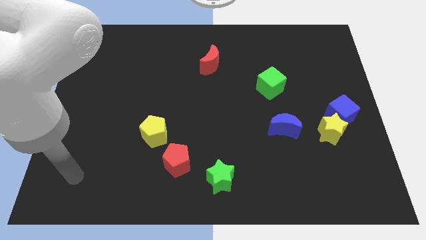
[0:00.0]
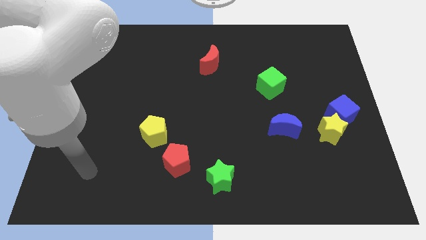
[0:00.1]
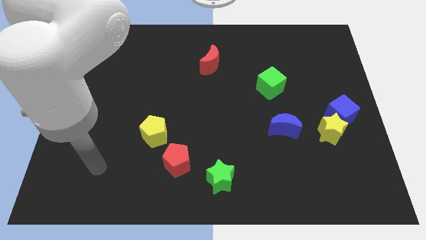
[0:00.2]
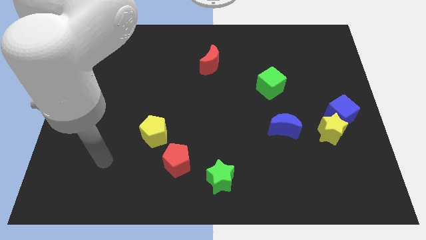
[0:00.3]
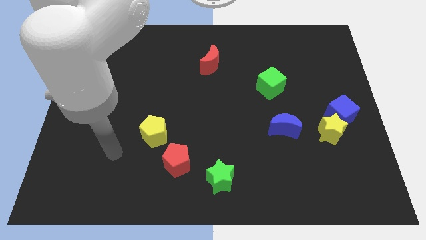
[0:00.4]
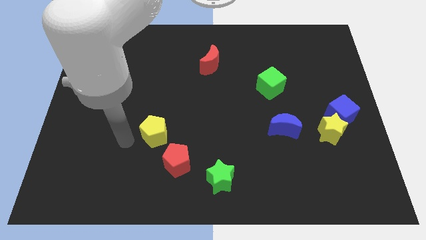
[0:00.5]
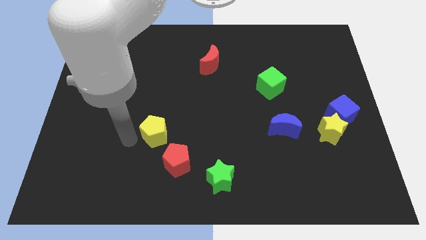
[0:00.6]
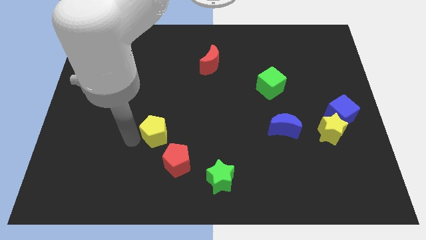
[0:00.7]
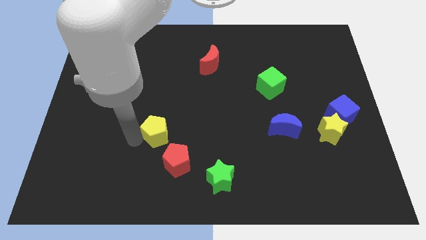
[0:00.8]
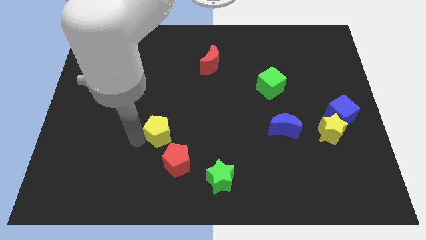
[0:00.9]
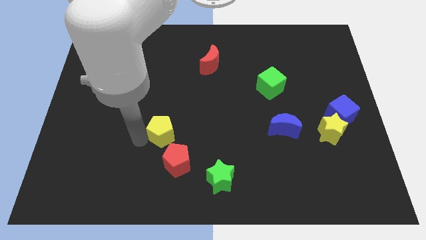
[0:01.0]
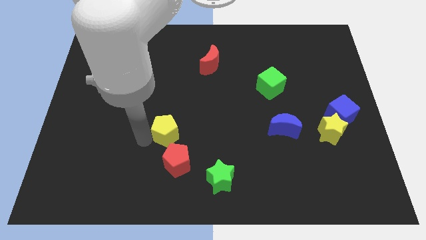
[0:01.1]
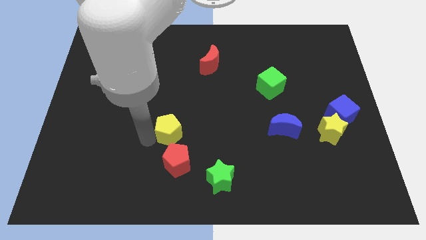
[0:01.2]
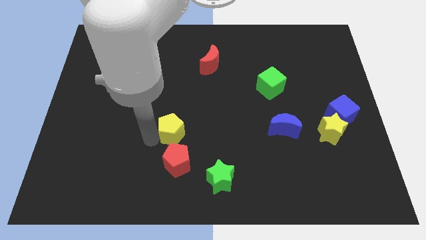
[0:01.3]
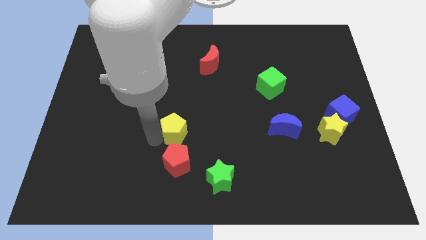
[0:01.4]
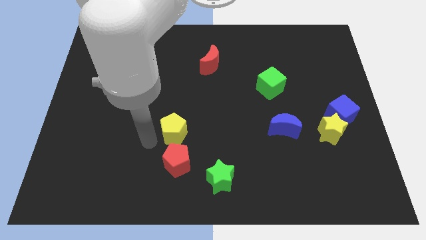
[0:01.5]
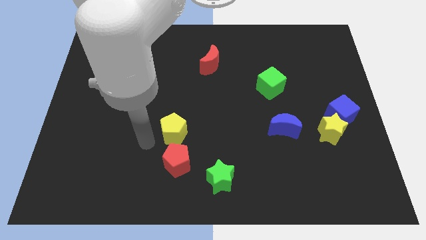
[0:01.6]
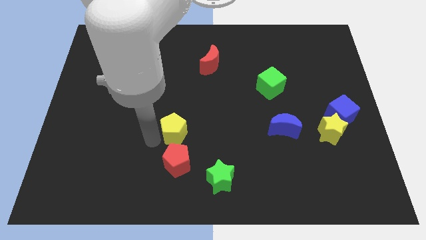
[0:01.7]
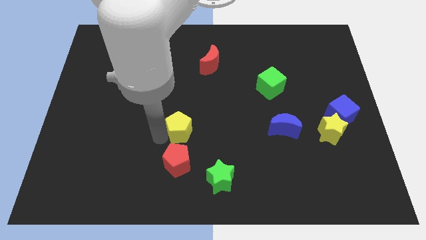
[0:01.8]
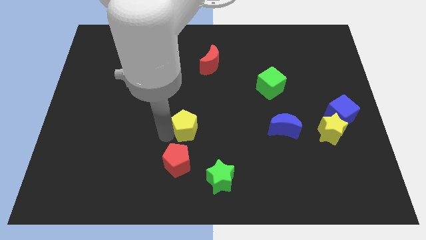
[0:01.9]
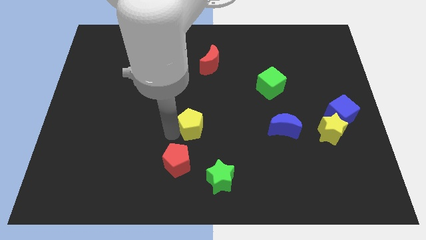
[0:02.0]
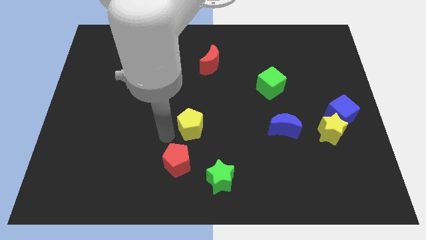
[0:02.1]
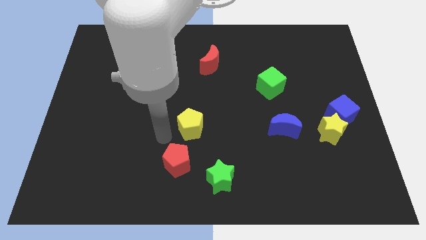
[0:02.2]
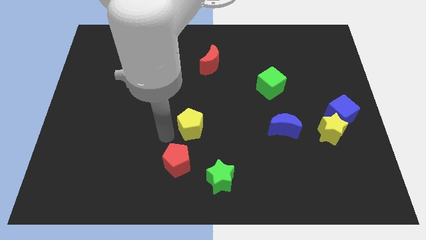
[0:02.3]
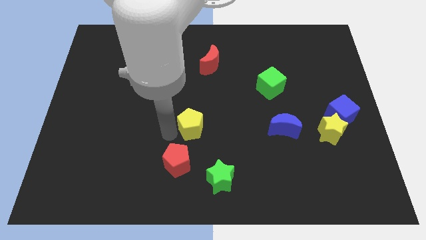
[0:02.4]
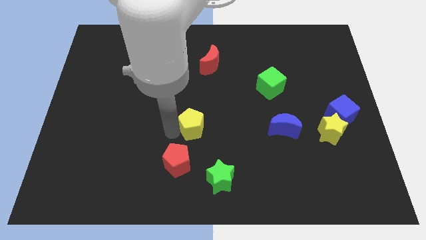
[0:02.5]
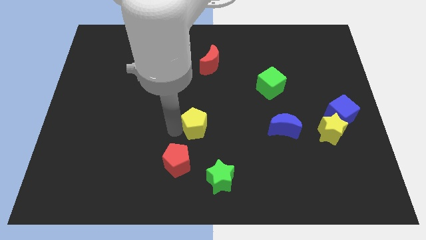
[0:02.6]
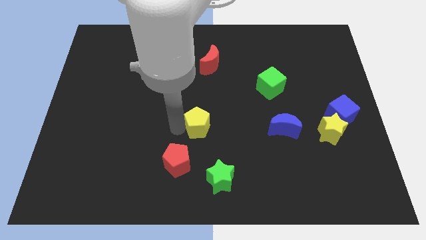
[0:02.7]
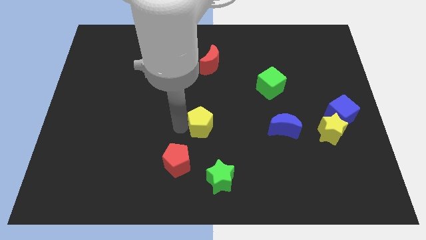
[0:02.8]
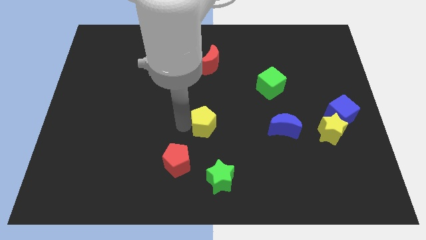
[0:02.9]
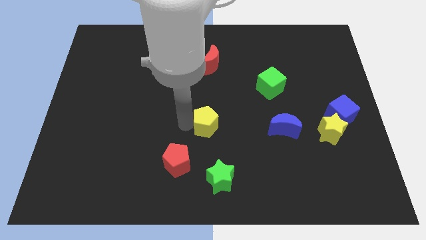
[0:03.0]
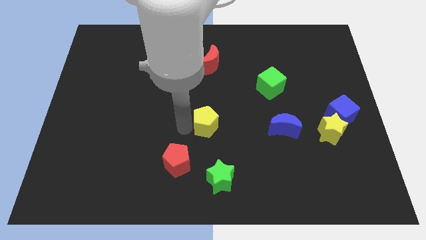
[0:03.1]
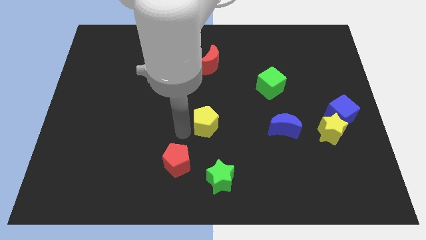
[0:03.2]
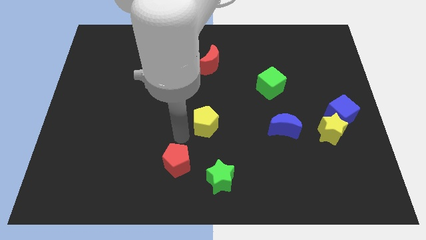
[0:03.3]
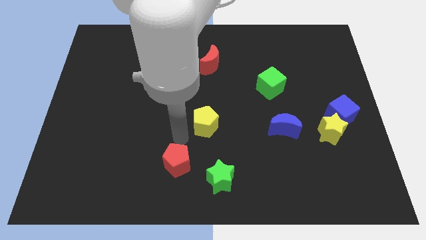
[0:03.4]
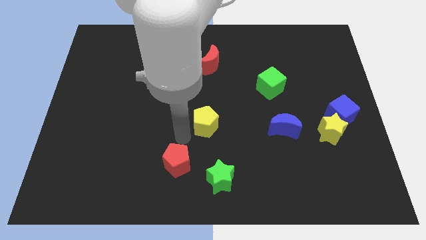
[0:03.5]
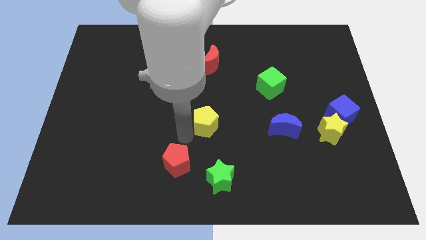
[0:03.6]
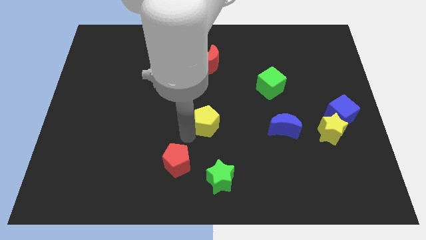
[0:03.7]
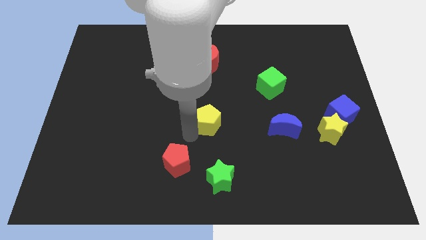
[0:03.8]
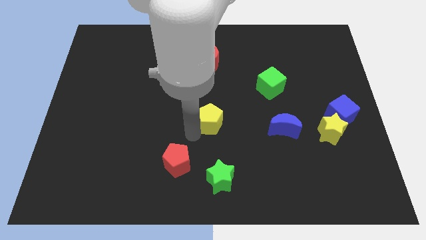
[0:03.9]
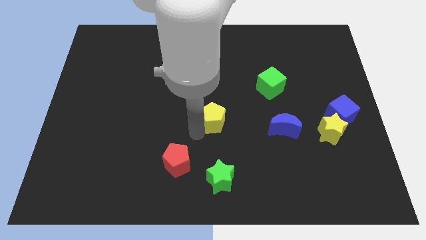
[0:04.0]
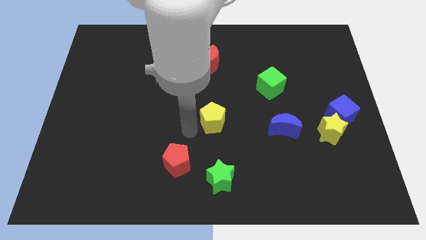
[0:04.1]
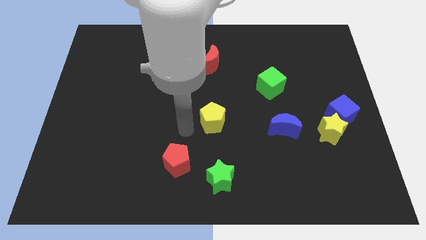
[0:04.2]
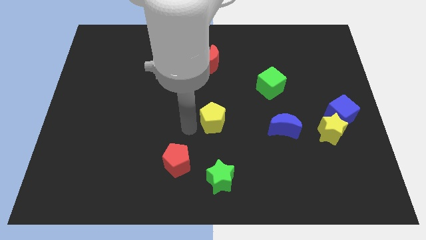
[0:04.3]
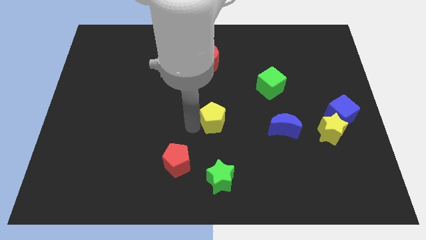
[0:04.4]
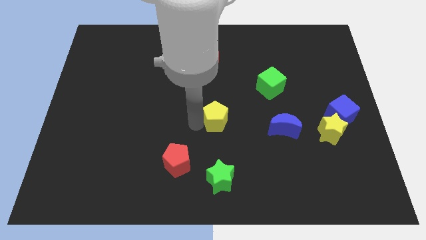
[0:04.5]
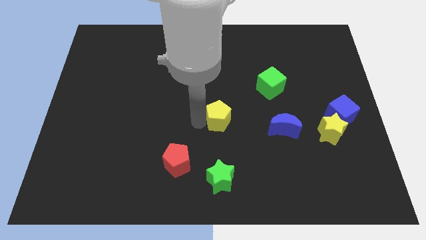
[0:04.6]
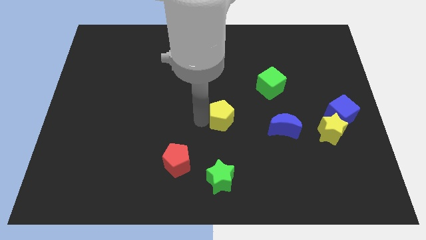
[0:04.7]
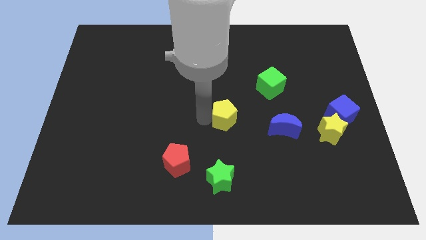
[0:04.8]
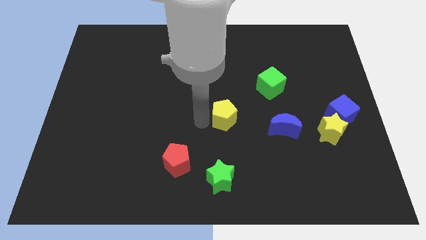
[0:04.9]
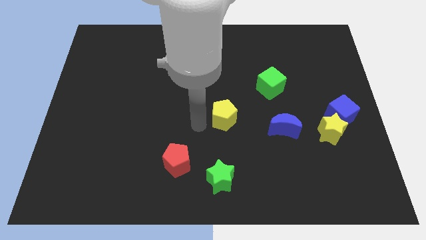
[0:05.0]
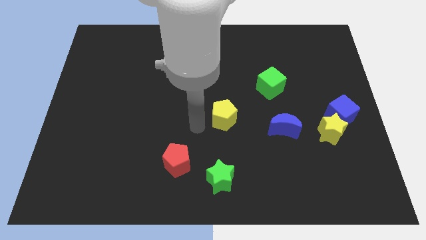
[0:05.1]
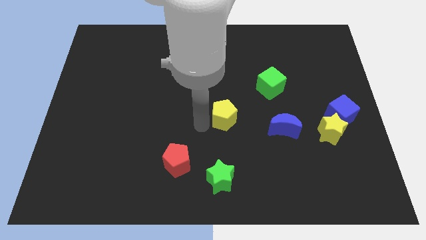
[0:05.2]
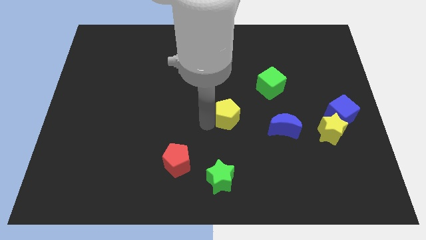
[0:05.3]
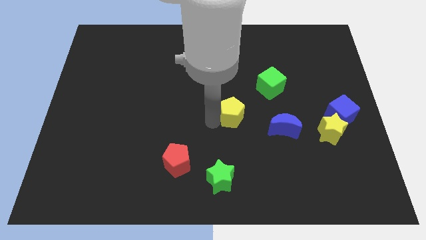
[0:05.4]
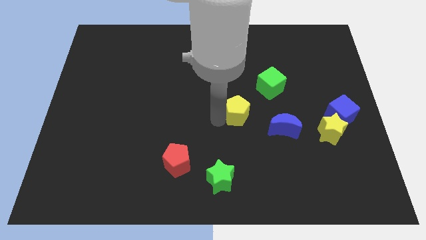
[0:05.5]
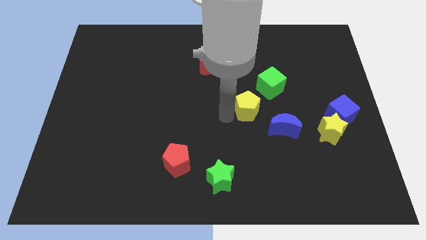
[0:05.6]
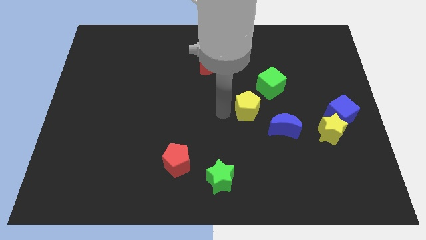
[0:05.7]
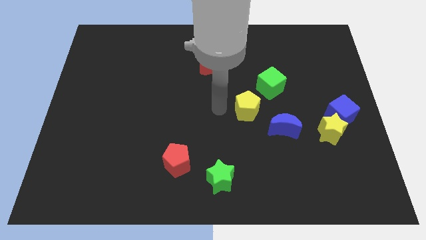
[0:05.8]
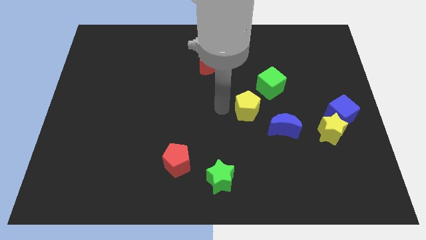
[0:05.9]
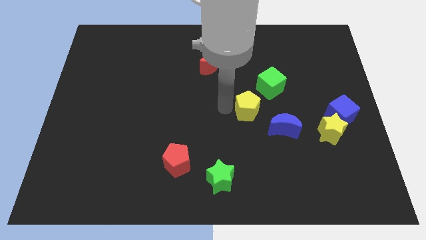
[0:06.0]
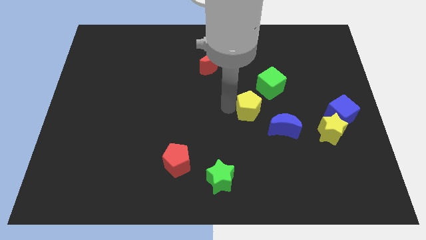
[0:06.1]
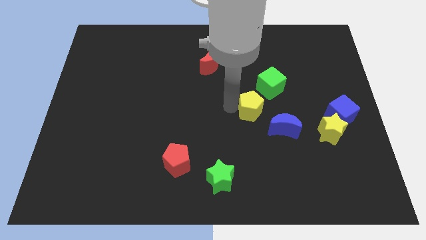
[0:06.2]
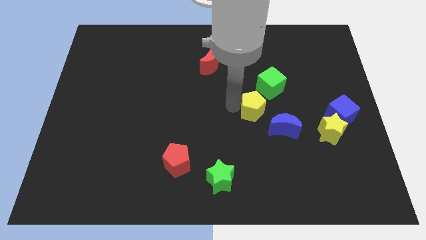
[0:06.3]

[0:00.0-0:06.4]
move the yellow pentagon right

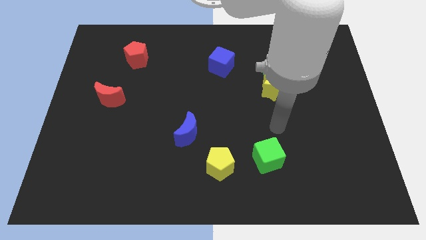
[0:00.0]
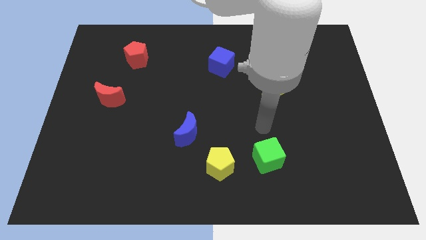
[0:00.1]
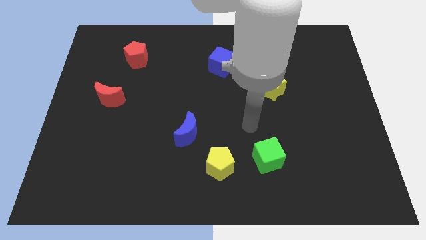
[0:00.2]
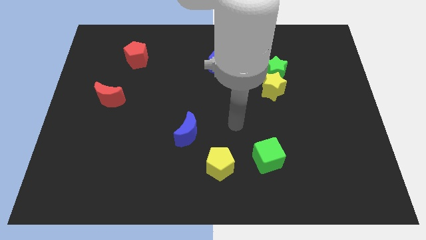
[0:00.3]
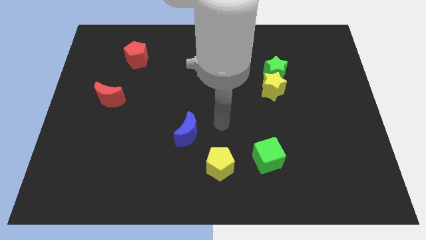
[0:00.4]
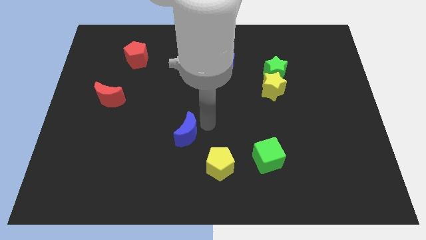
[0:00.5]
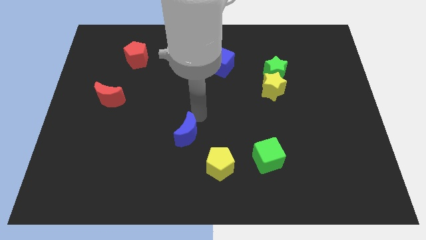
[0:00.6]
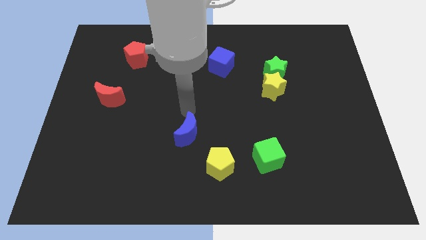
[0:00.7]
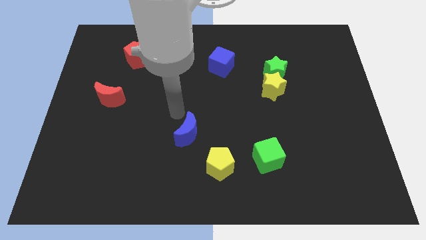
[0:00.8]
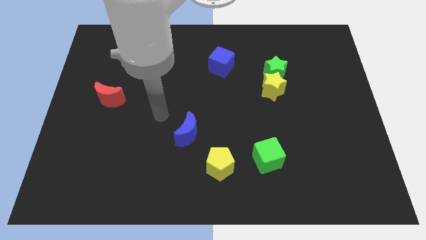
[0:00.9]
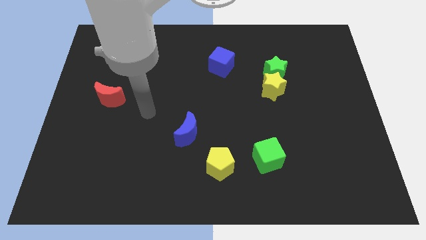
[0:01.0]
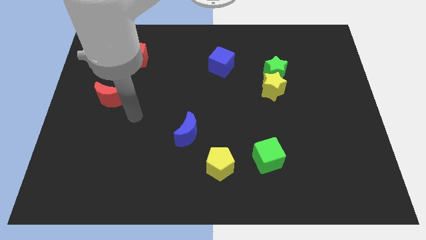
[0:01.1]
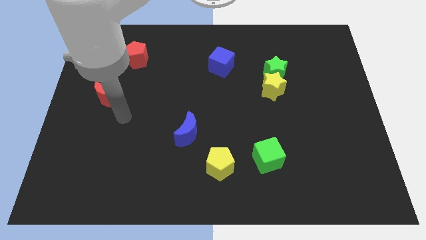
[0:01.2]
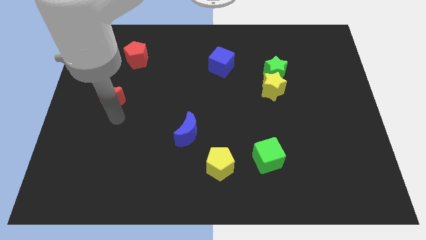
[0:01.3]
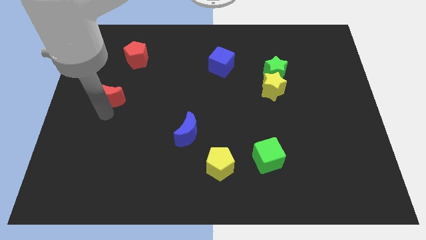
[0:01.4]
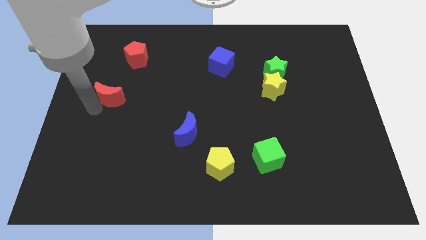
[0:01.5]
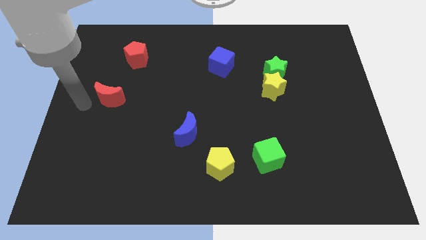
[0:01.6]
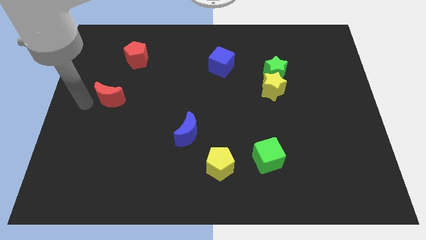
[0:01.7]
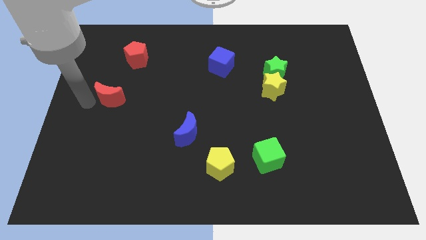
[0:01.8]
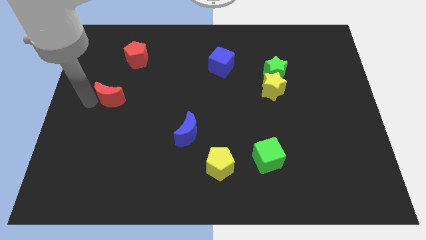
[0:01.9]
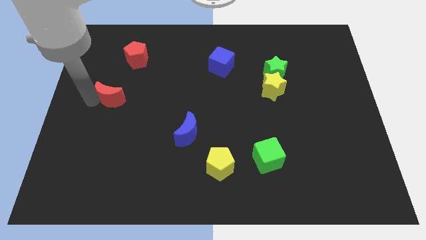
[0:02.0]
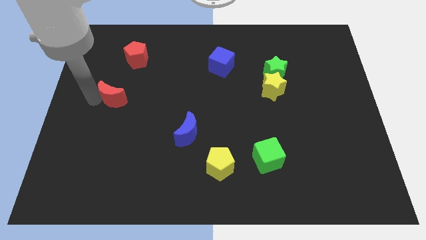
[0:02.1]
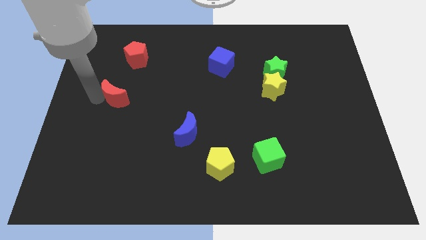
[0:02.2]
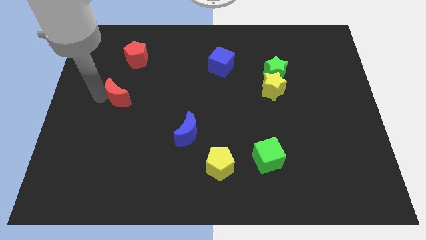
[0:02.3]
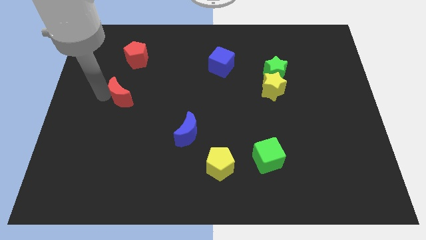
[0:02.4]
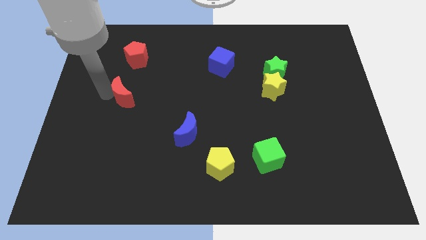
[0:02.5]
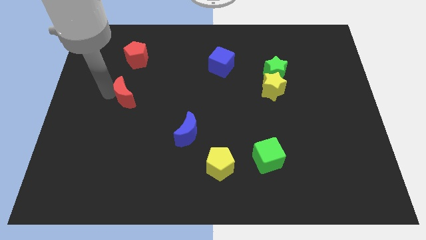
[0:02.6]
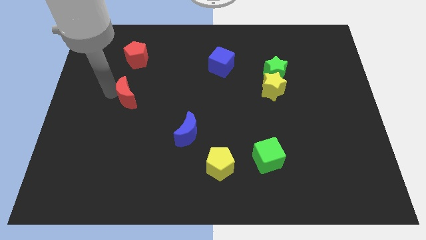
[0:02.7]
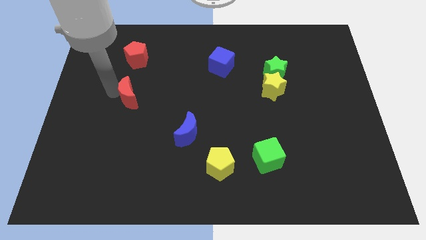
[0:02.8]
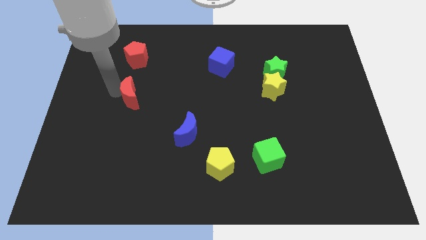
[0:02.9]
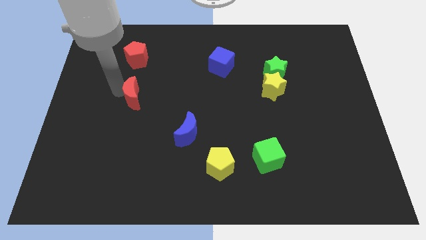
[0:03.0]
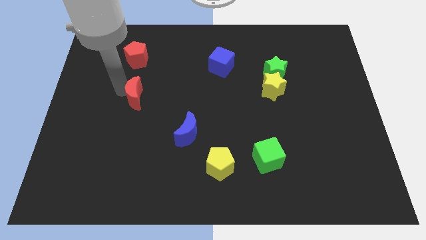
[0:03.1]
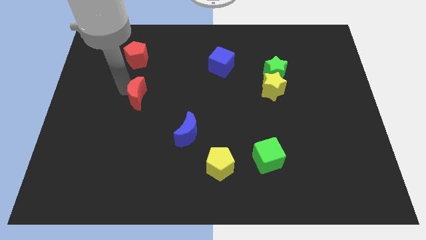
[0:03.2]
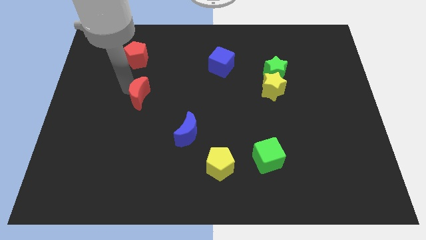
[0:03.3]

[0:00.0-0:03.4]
slide the red moon a little to the right
